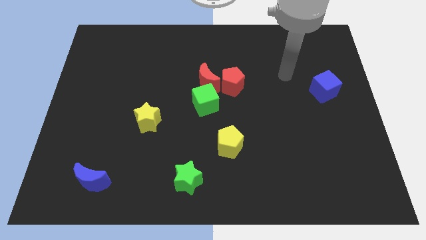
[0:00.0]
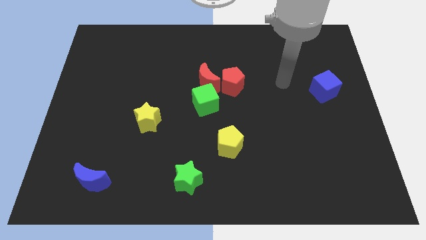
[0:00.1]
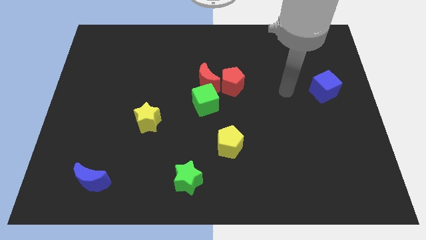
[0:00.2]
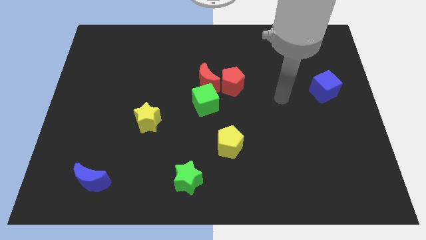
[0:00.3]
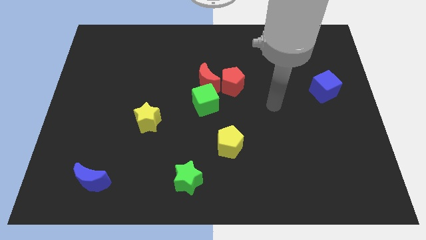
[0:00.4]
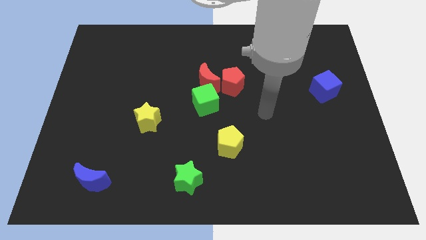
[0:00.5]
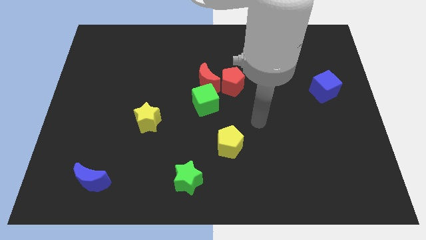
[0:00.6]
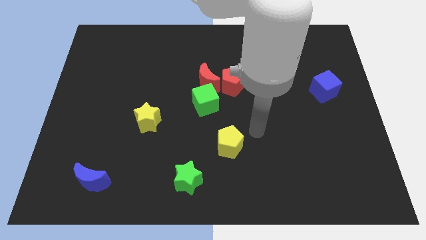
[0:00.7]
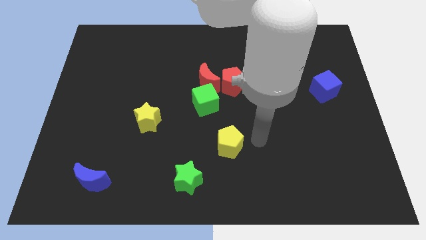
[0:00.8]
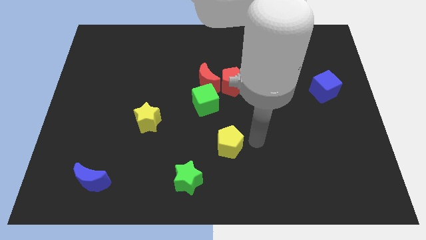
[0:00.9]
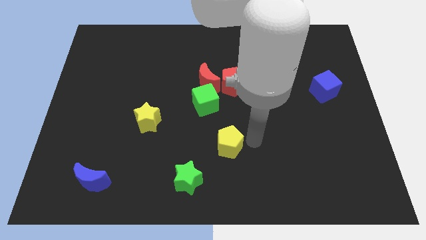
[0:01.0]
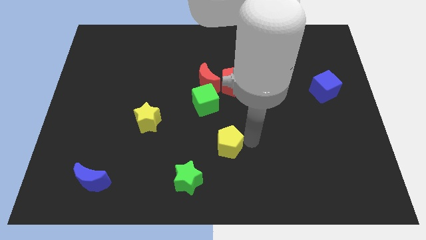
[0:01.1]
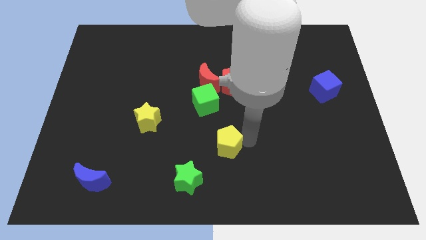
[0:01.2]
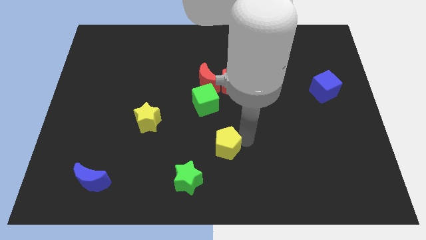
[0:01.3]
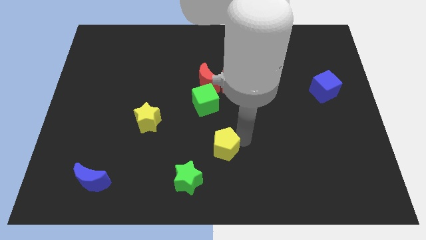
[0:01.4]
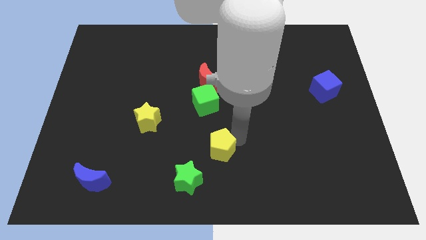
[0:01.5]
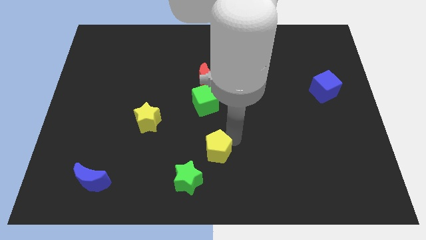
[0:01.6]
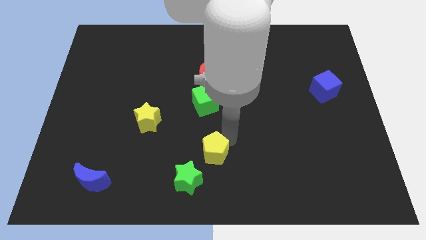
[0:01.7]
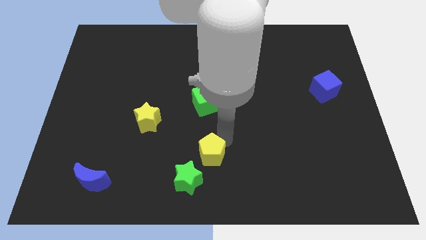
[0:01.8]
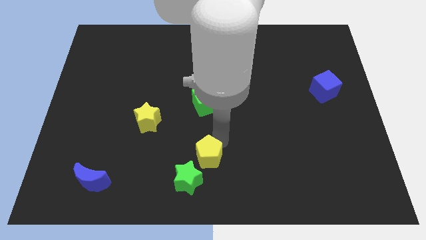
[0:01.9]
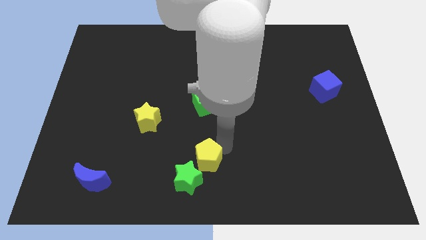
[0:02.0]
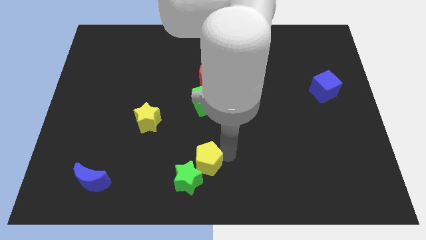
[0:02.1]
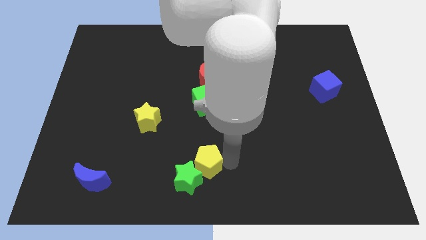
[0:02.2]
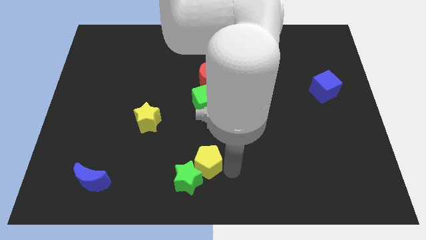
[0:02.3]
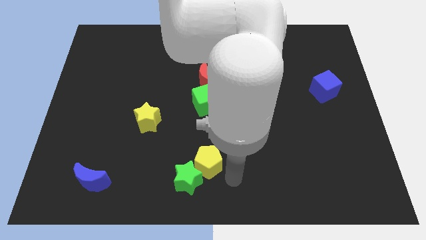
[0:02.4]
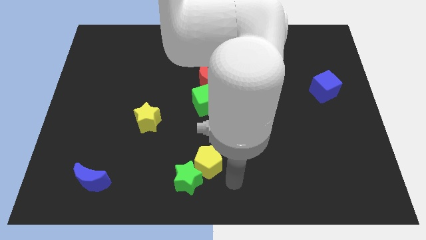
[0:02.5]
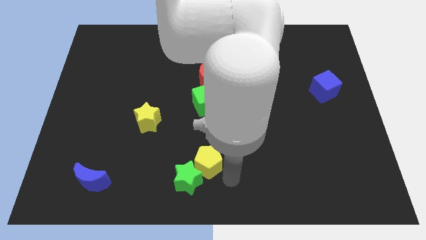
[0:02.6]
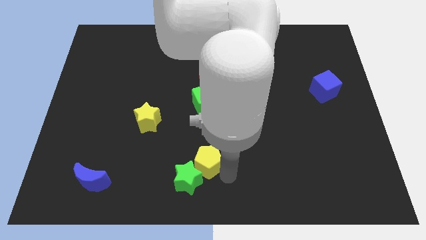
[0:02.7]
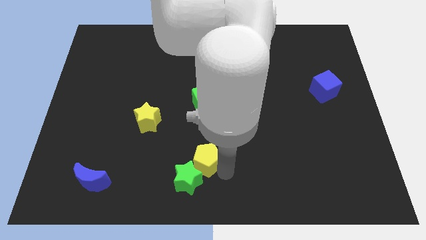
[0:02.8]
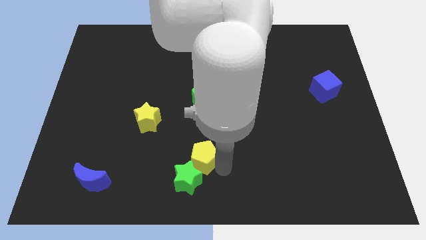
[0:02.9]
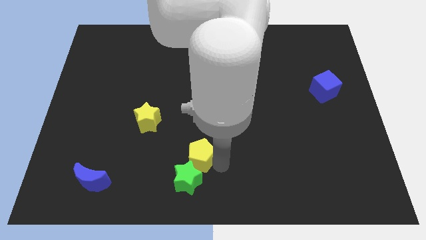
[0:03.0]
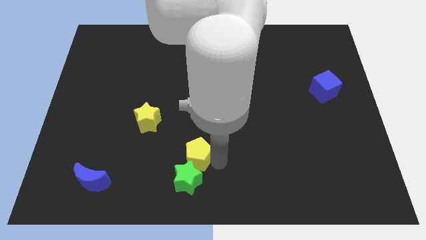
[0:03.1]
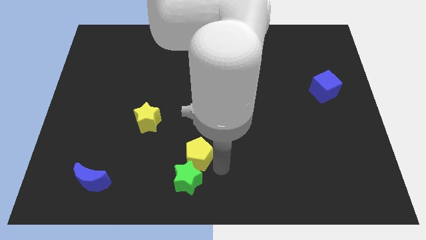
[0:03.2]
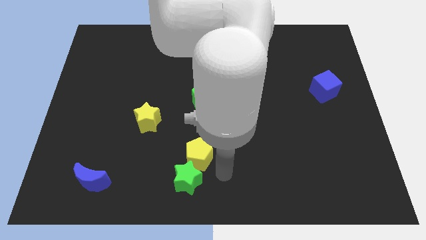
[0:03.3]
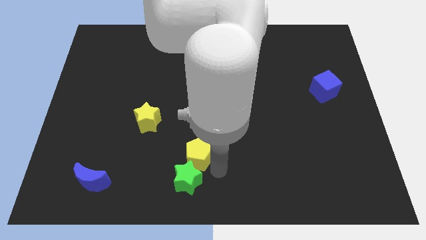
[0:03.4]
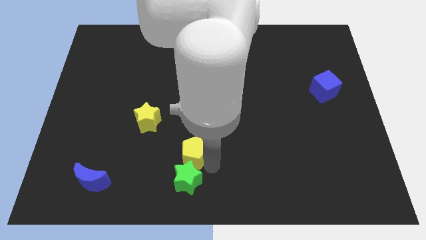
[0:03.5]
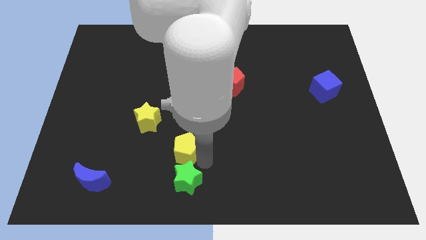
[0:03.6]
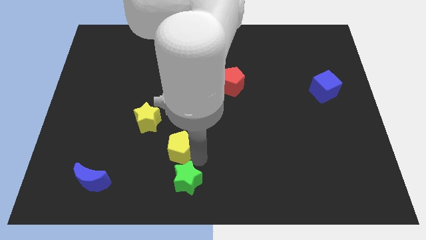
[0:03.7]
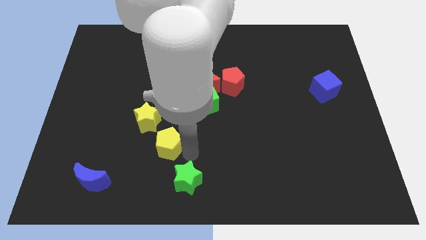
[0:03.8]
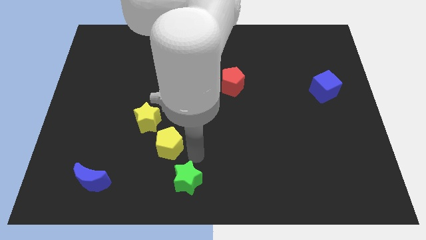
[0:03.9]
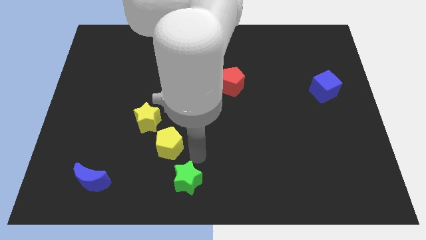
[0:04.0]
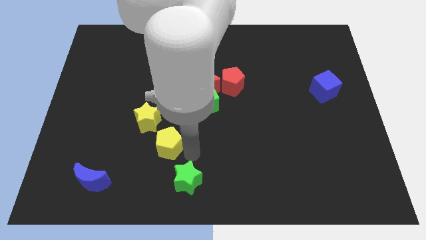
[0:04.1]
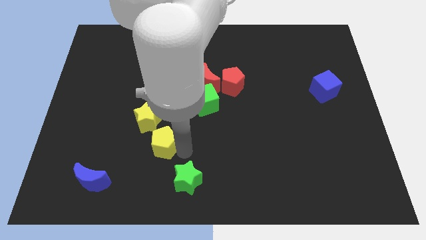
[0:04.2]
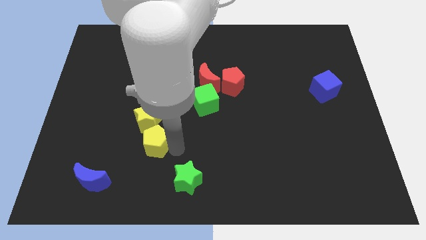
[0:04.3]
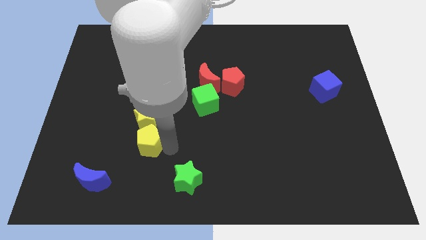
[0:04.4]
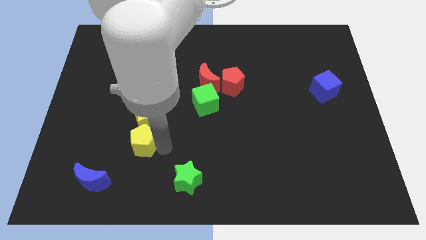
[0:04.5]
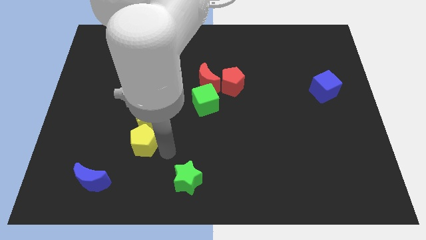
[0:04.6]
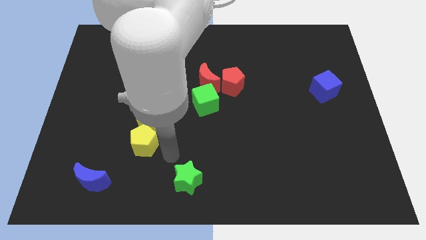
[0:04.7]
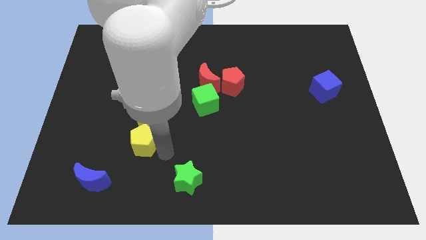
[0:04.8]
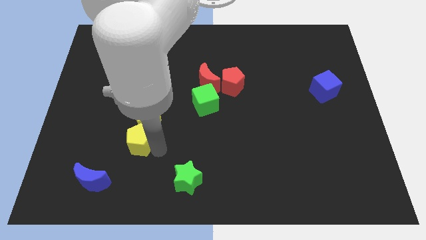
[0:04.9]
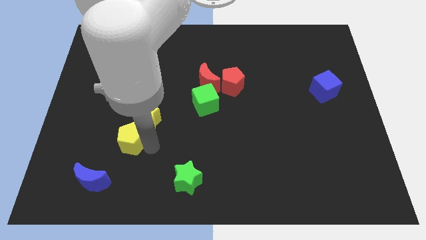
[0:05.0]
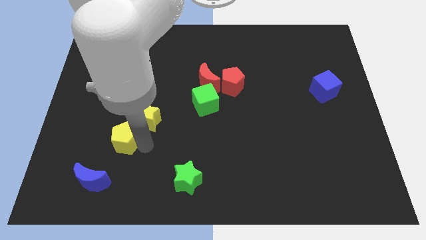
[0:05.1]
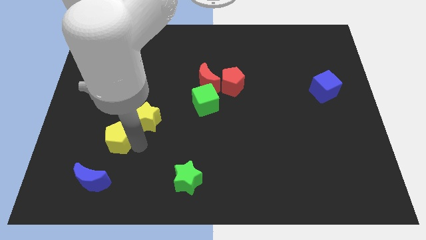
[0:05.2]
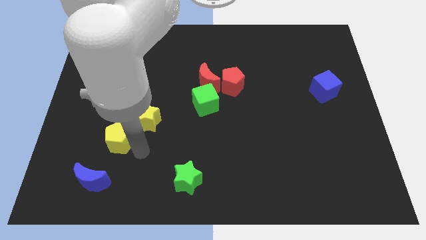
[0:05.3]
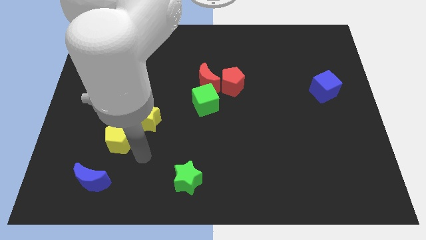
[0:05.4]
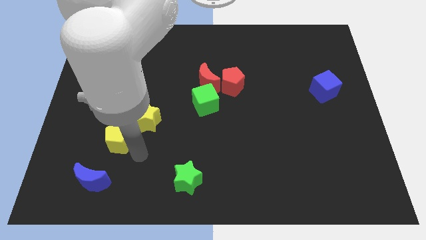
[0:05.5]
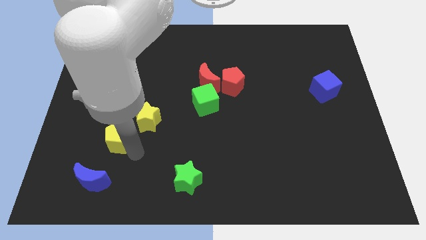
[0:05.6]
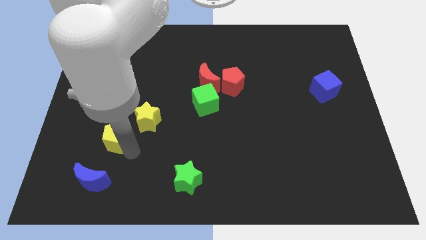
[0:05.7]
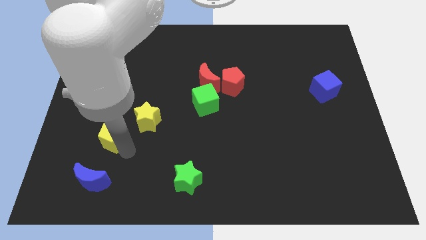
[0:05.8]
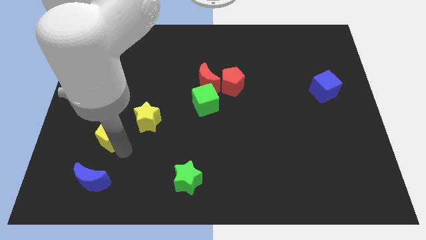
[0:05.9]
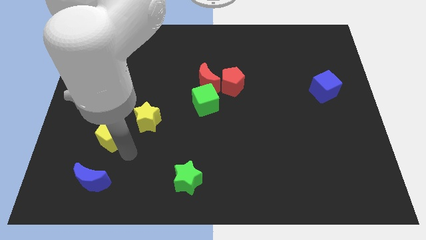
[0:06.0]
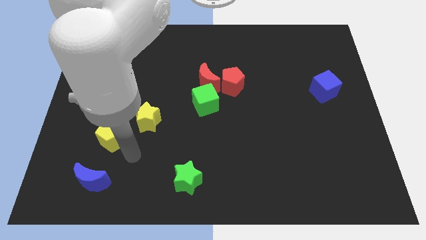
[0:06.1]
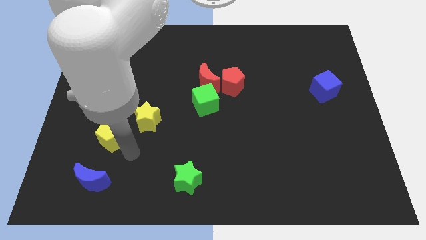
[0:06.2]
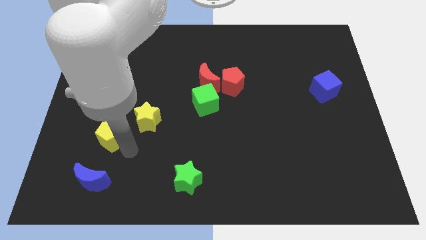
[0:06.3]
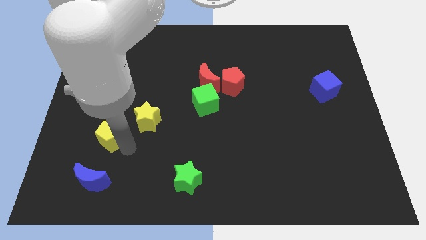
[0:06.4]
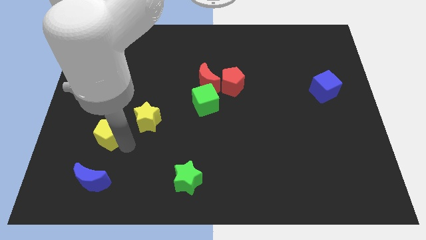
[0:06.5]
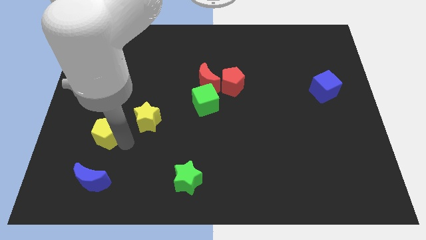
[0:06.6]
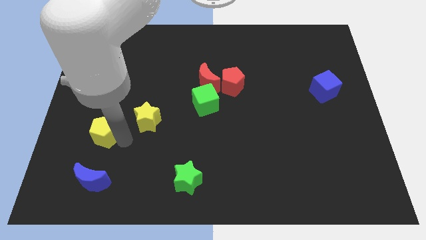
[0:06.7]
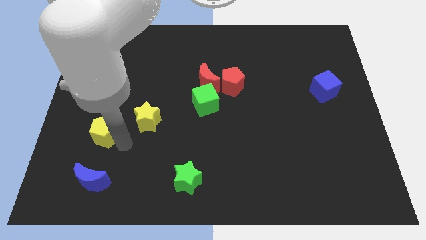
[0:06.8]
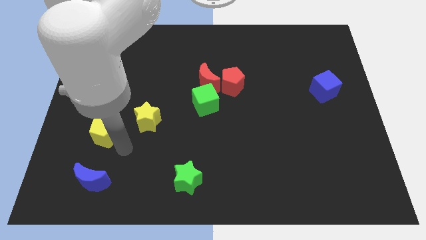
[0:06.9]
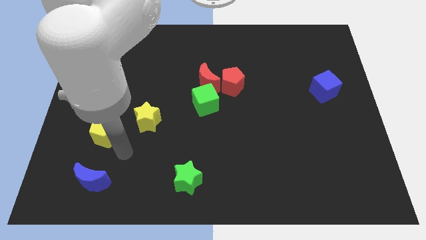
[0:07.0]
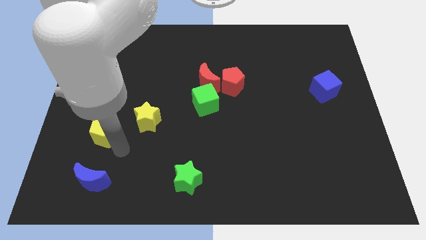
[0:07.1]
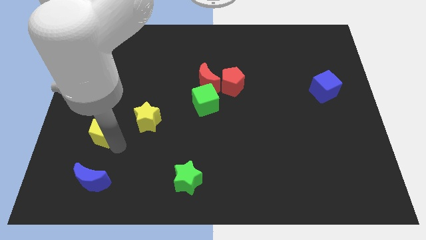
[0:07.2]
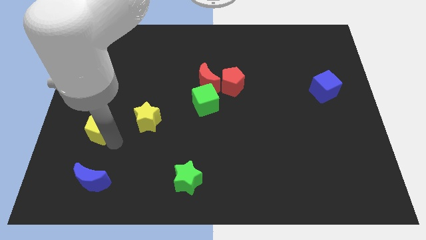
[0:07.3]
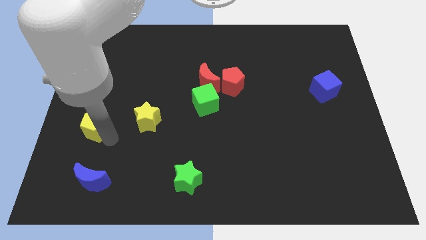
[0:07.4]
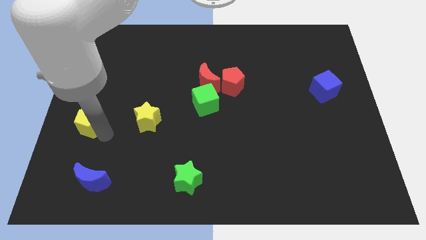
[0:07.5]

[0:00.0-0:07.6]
put the yellow pentagon to the left side
